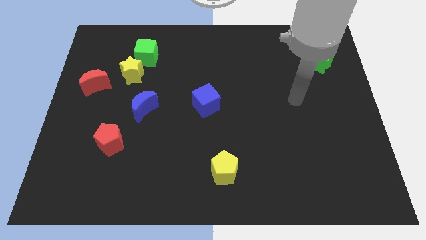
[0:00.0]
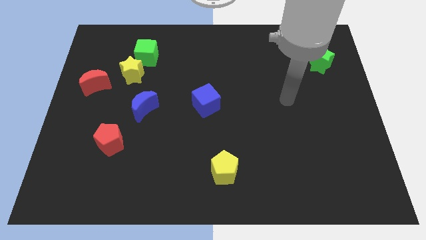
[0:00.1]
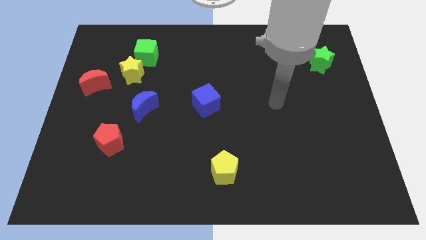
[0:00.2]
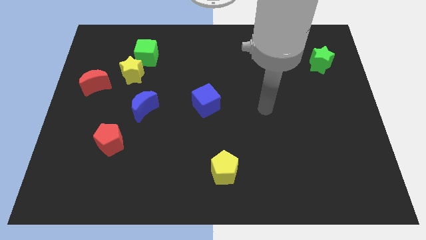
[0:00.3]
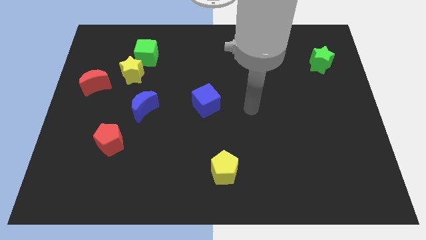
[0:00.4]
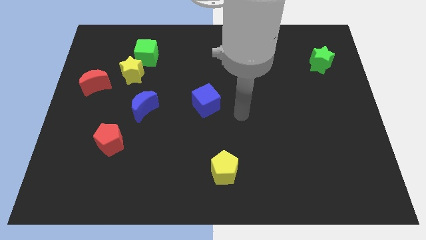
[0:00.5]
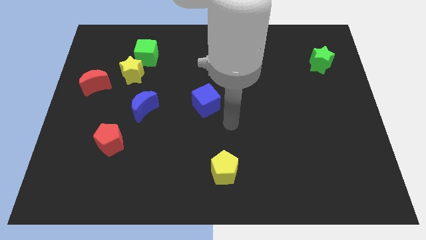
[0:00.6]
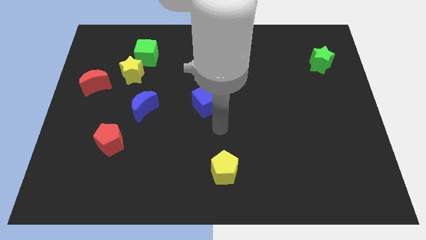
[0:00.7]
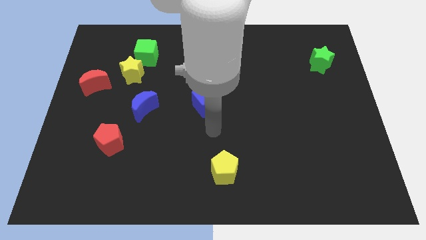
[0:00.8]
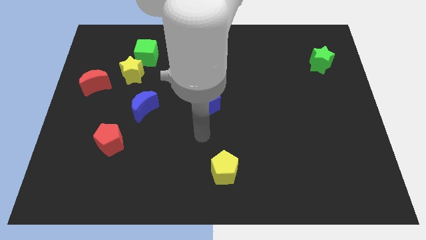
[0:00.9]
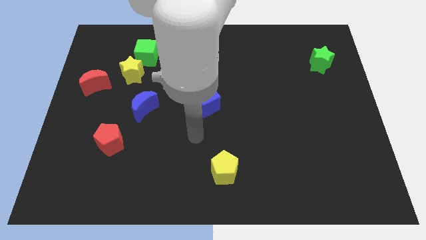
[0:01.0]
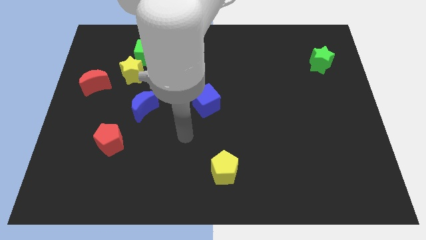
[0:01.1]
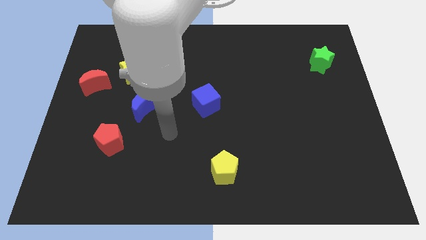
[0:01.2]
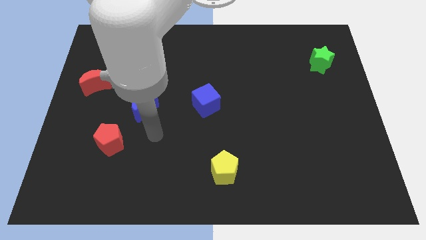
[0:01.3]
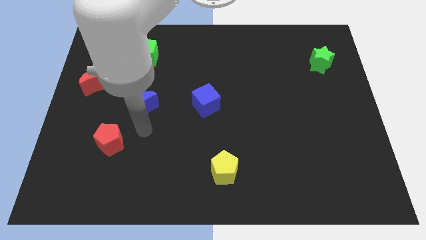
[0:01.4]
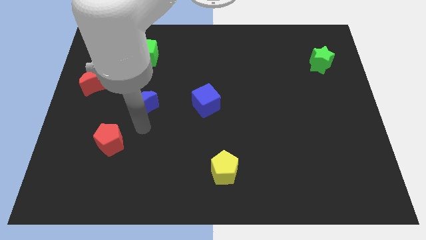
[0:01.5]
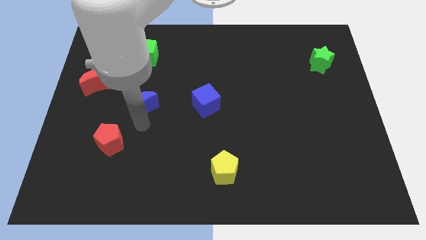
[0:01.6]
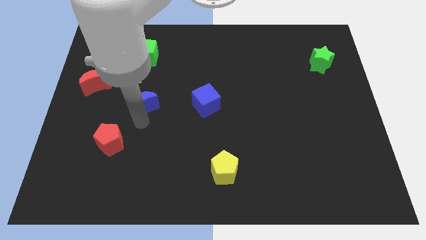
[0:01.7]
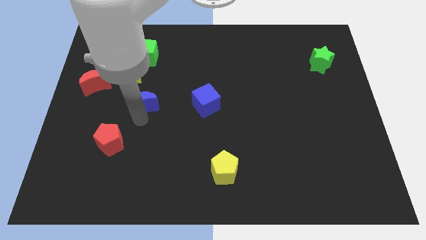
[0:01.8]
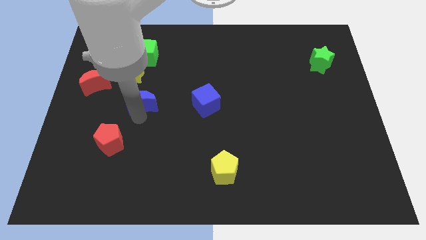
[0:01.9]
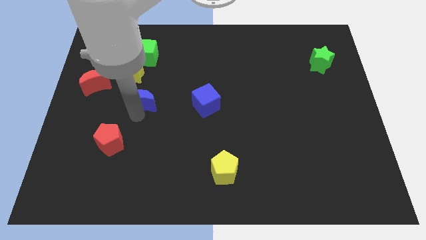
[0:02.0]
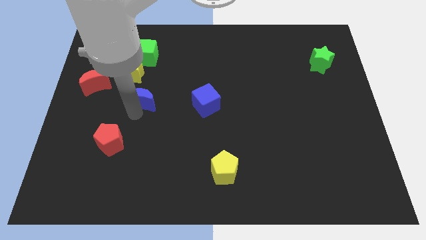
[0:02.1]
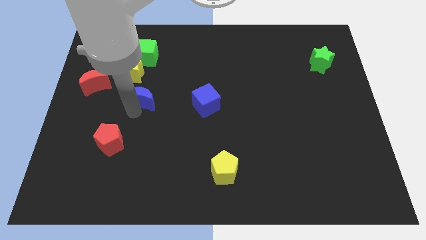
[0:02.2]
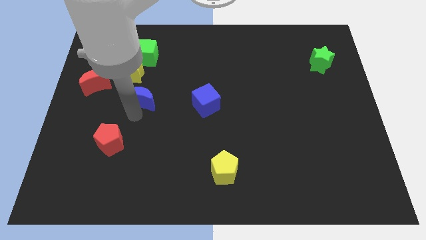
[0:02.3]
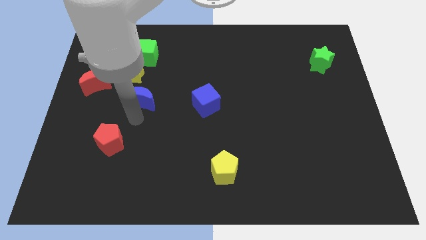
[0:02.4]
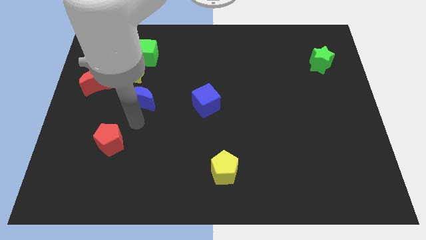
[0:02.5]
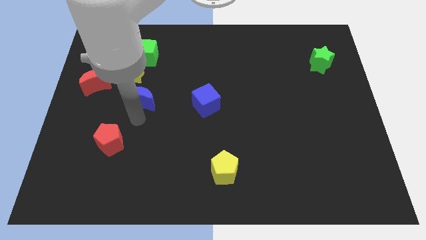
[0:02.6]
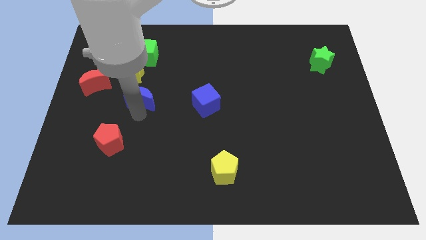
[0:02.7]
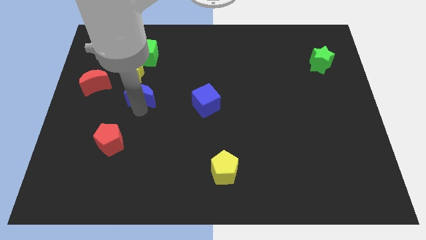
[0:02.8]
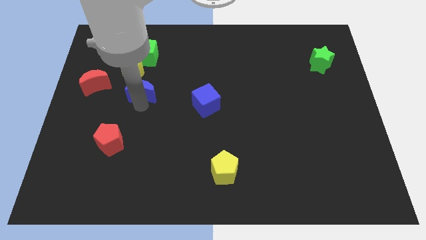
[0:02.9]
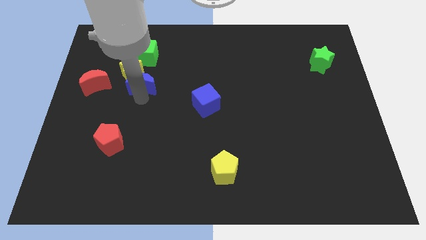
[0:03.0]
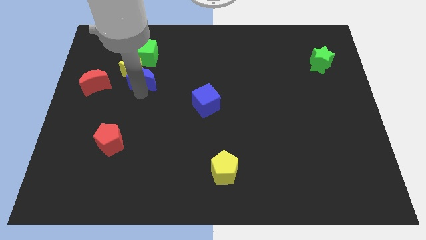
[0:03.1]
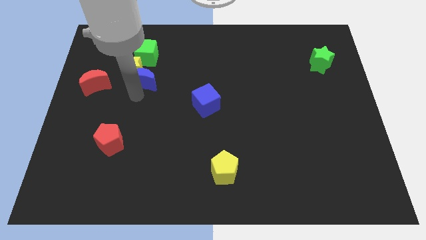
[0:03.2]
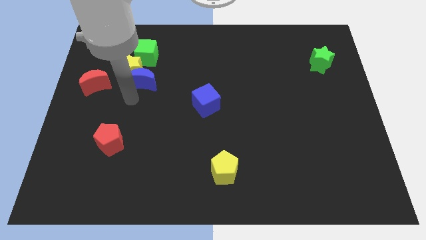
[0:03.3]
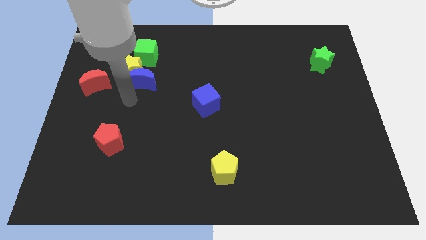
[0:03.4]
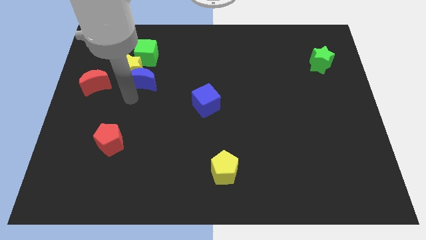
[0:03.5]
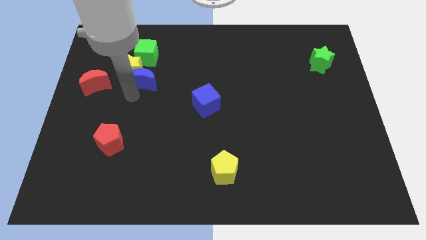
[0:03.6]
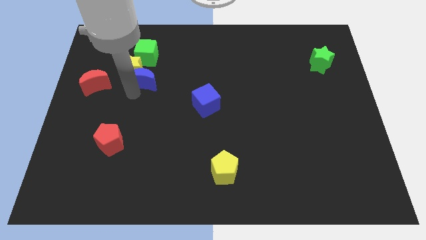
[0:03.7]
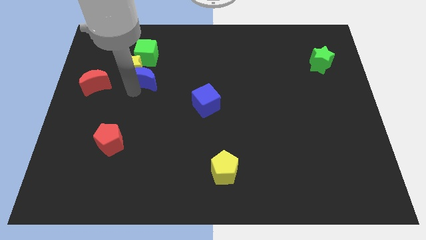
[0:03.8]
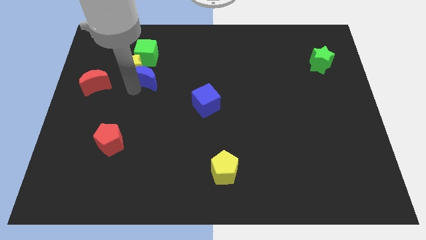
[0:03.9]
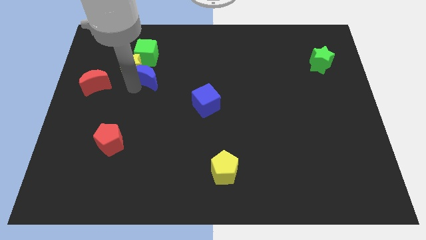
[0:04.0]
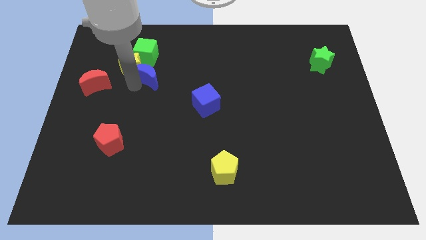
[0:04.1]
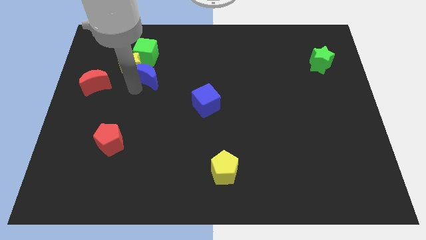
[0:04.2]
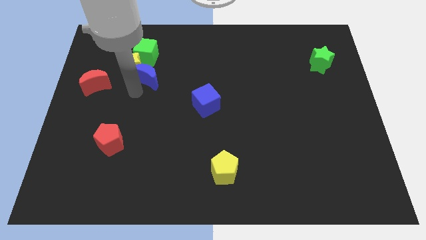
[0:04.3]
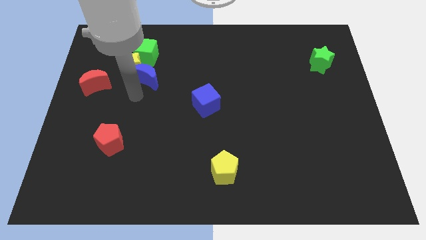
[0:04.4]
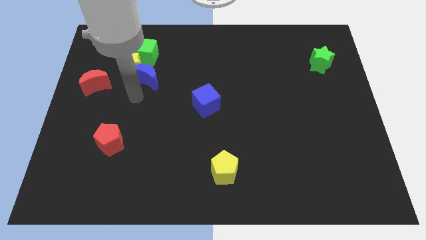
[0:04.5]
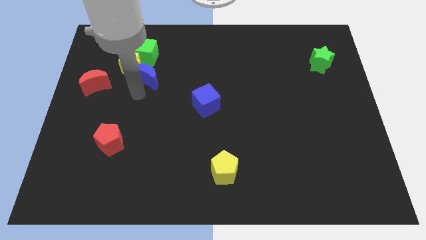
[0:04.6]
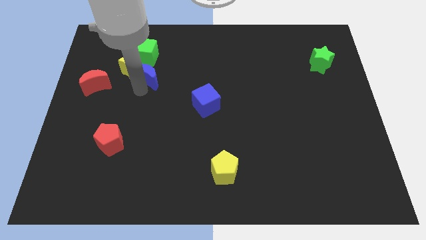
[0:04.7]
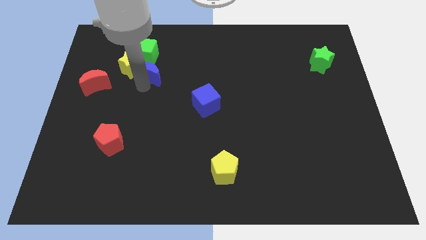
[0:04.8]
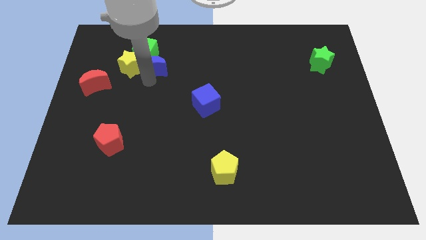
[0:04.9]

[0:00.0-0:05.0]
move the blue moon towards the green cube

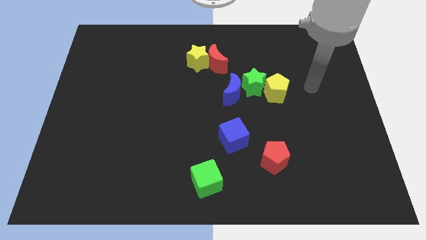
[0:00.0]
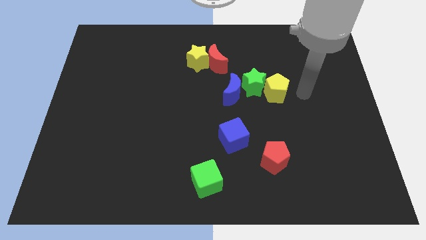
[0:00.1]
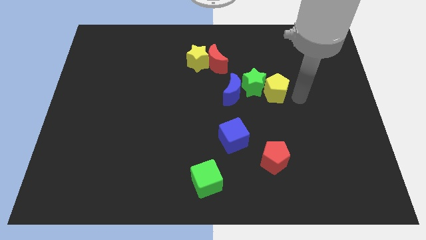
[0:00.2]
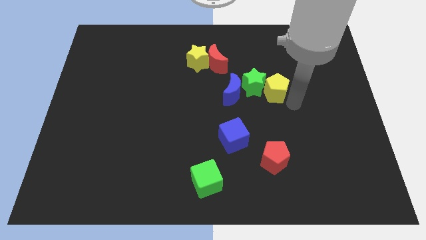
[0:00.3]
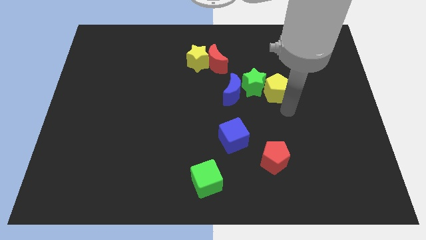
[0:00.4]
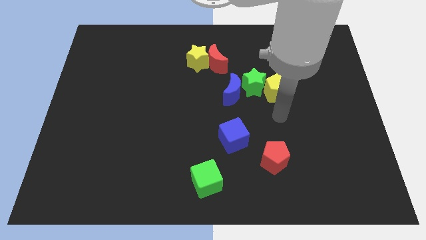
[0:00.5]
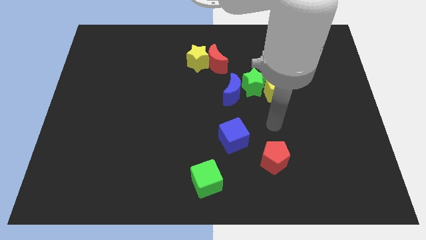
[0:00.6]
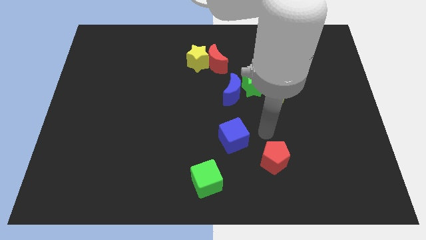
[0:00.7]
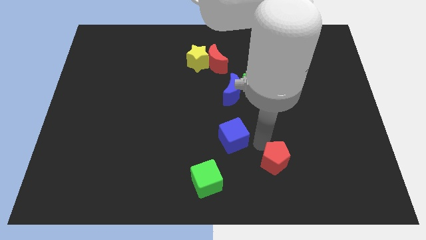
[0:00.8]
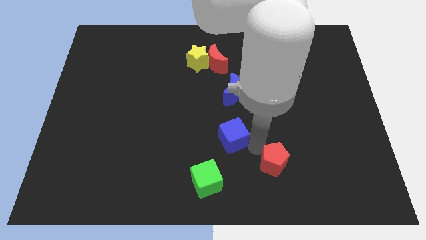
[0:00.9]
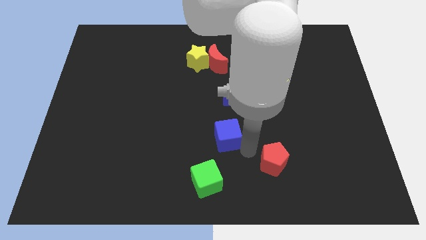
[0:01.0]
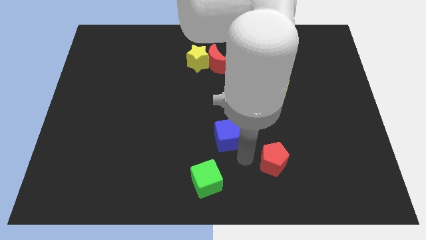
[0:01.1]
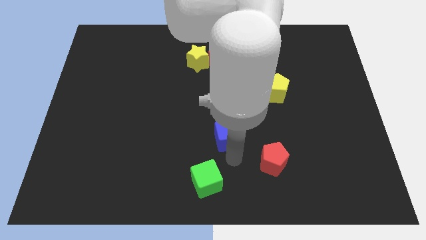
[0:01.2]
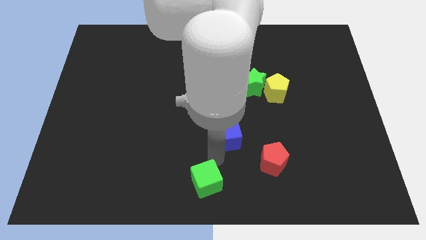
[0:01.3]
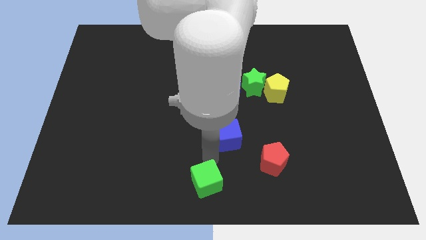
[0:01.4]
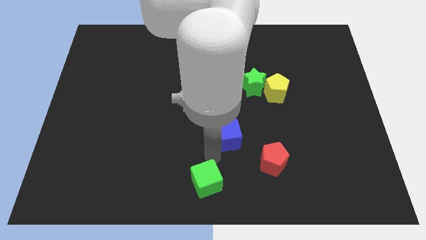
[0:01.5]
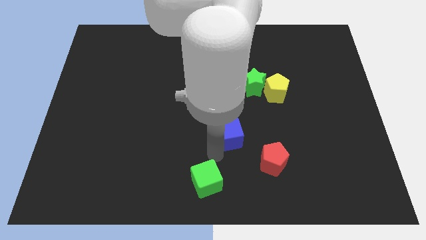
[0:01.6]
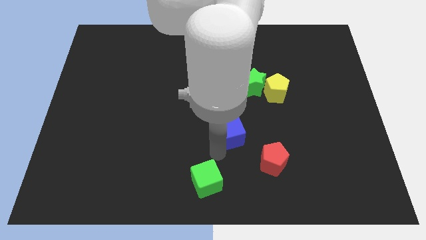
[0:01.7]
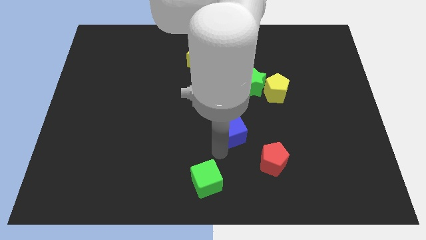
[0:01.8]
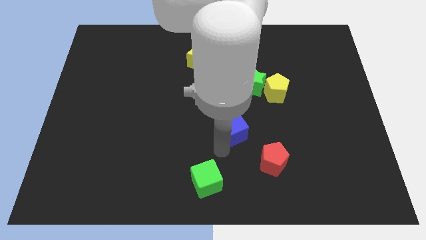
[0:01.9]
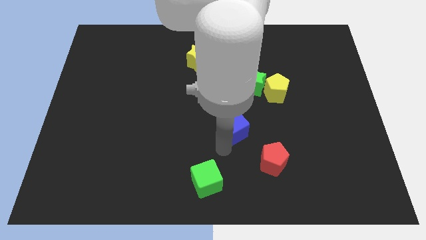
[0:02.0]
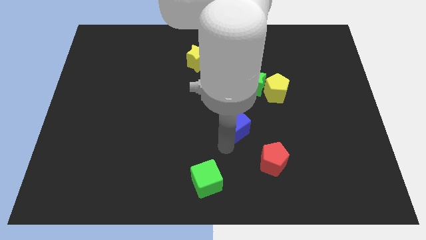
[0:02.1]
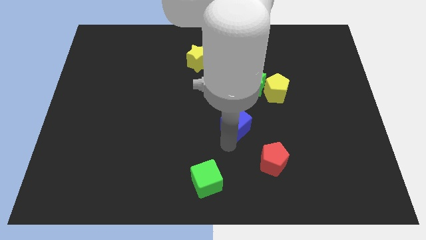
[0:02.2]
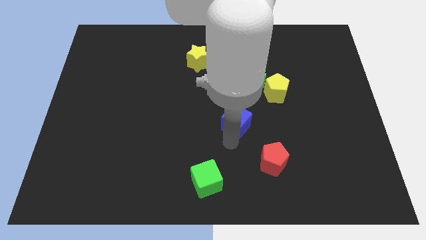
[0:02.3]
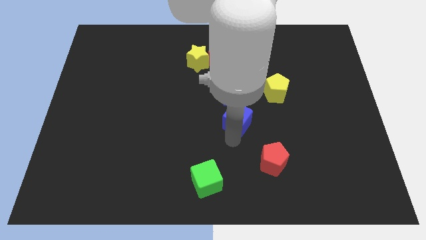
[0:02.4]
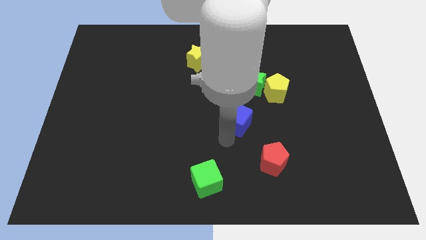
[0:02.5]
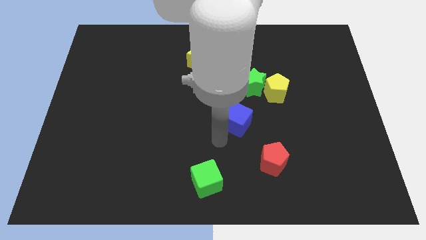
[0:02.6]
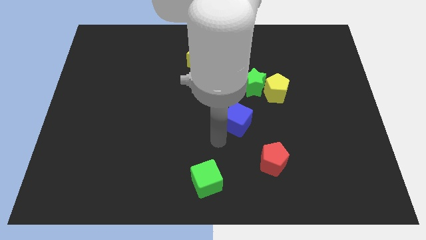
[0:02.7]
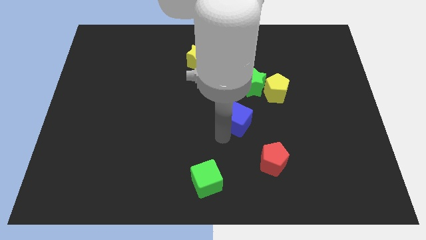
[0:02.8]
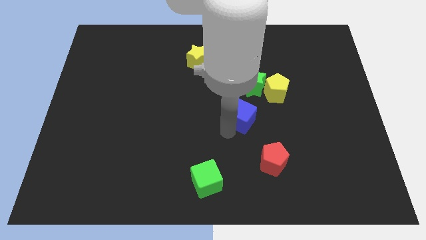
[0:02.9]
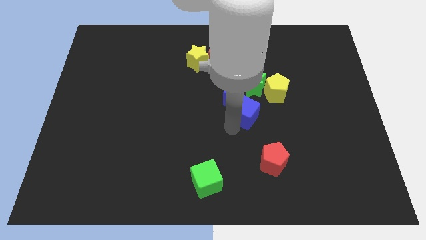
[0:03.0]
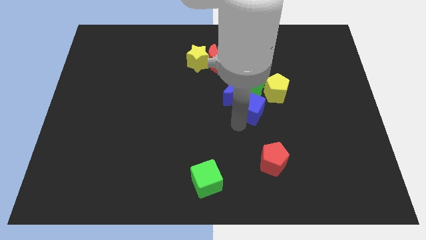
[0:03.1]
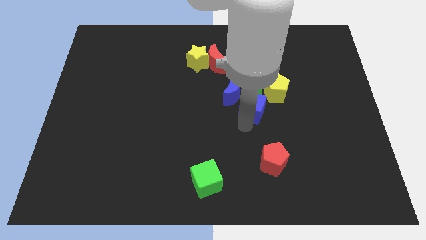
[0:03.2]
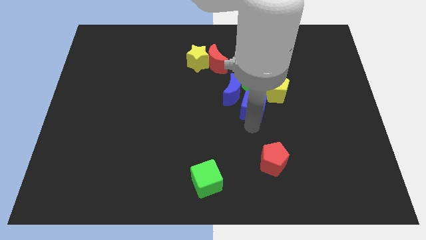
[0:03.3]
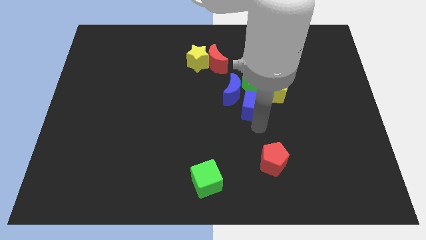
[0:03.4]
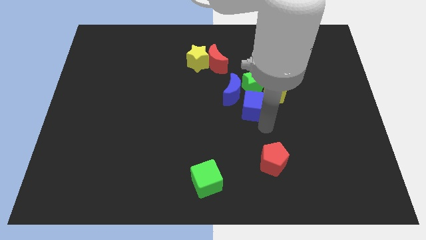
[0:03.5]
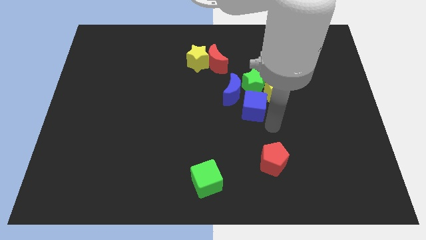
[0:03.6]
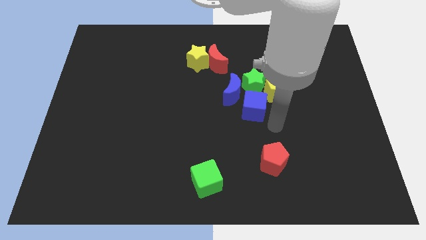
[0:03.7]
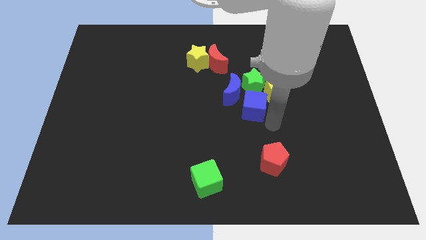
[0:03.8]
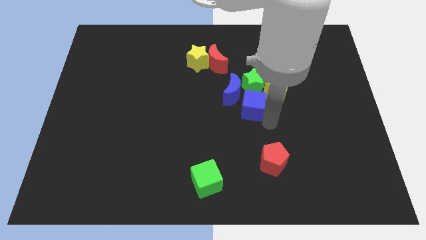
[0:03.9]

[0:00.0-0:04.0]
put the blue cube to the blue moon
